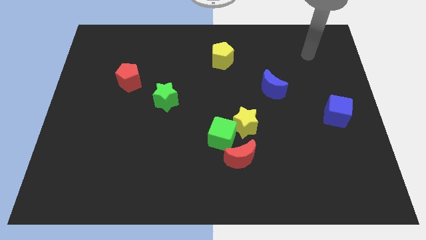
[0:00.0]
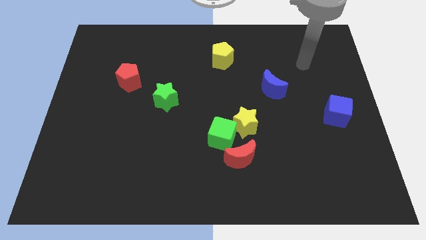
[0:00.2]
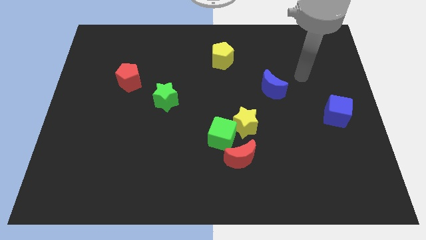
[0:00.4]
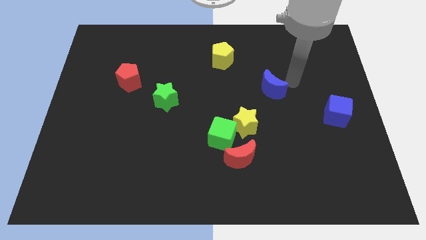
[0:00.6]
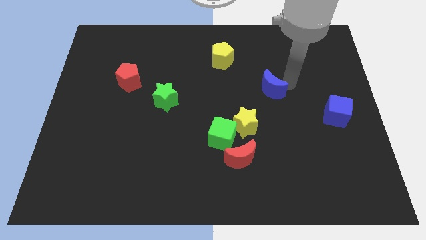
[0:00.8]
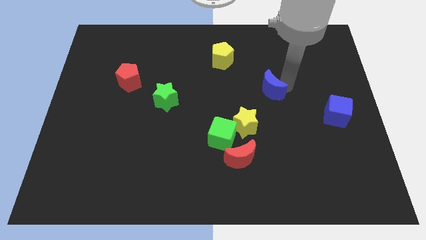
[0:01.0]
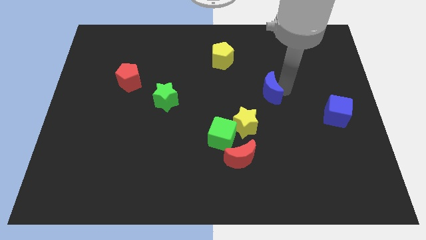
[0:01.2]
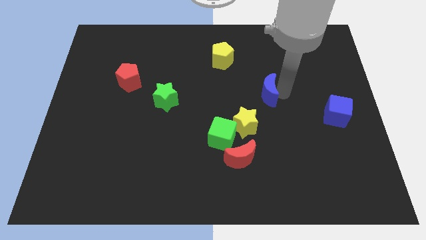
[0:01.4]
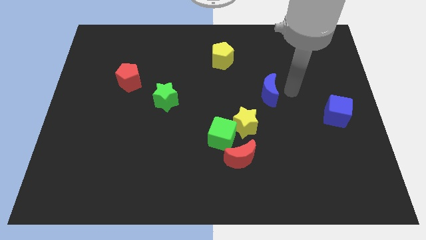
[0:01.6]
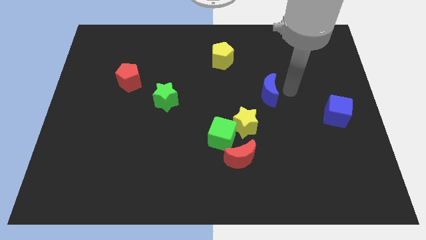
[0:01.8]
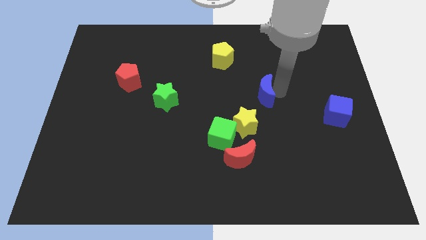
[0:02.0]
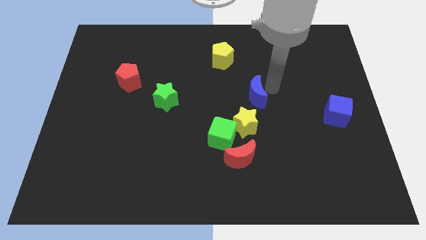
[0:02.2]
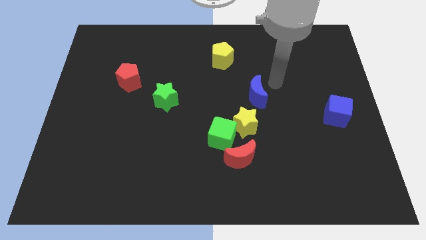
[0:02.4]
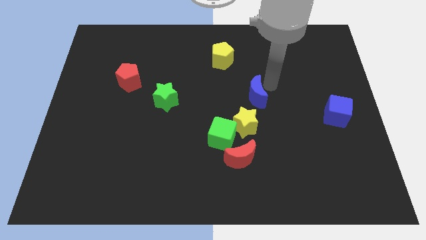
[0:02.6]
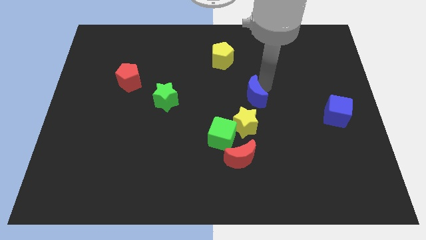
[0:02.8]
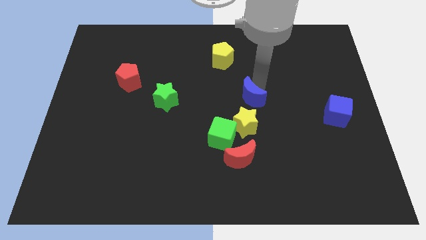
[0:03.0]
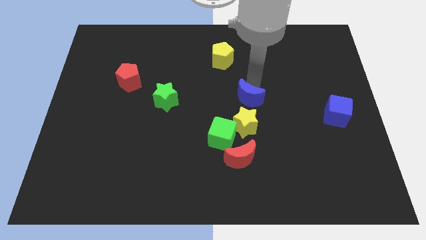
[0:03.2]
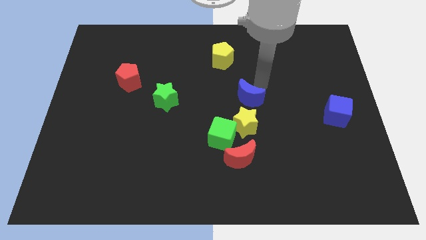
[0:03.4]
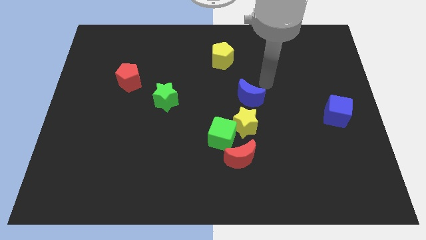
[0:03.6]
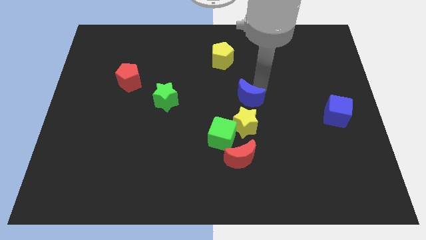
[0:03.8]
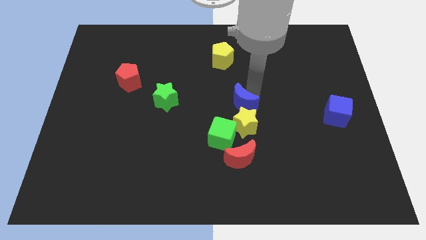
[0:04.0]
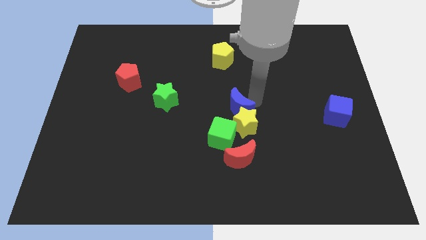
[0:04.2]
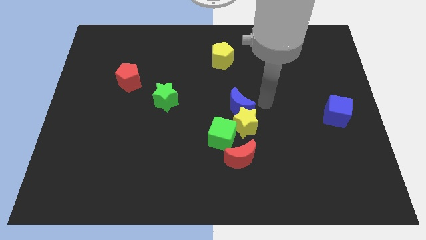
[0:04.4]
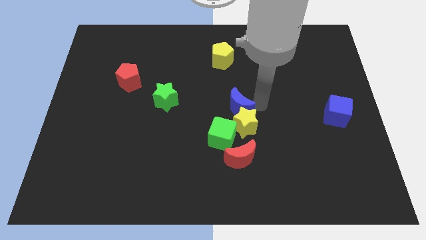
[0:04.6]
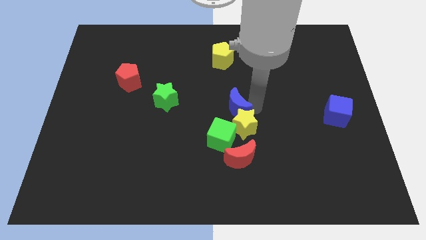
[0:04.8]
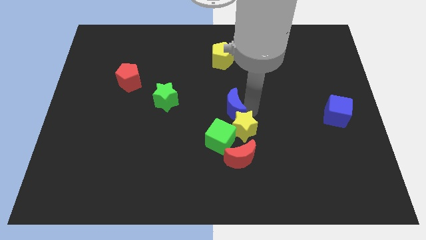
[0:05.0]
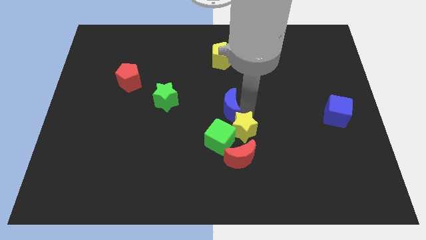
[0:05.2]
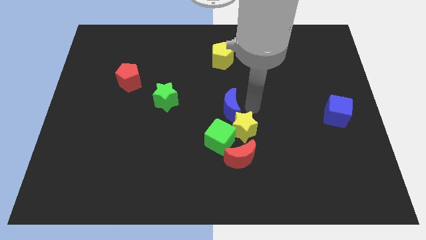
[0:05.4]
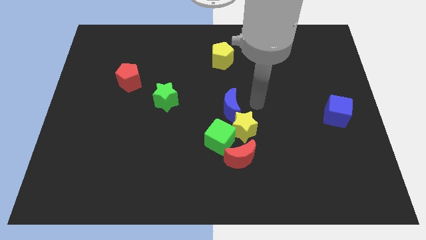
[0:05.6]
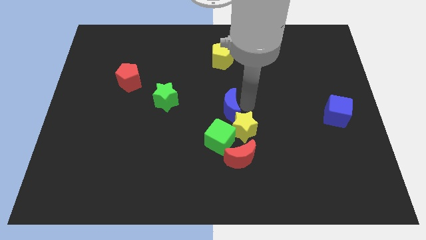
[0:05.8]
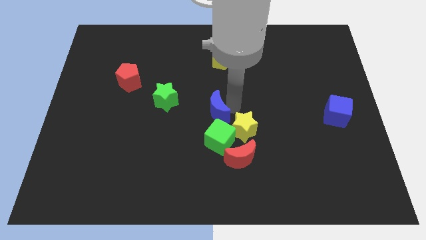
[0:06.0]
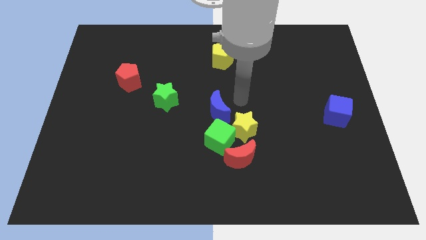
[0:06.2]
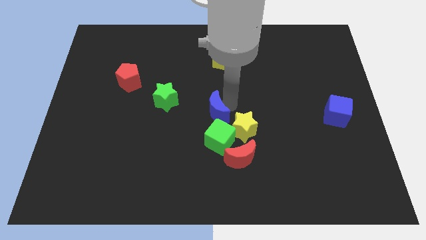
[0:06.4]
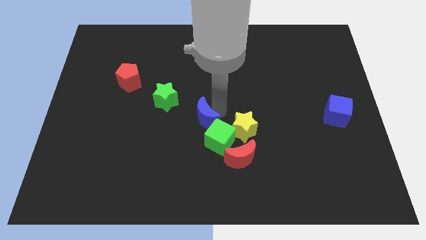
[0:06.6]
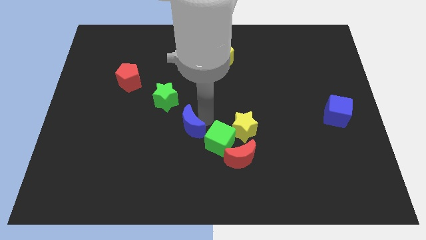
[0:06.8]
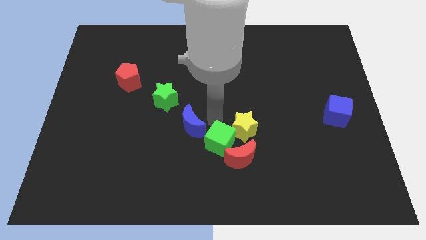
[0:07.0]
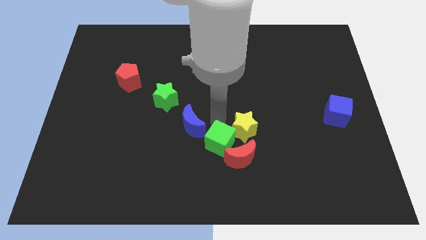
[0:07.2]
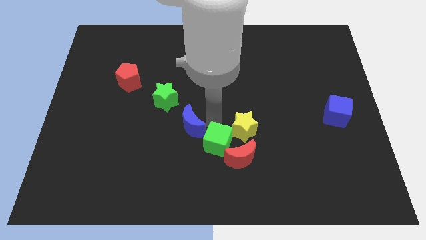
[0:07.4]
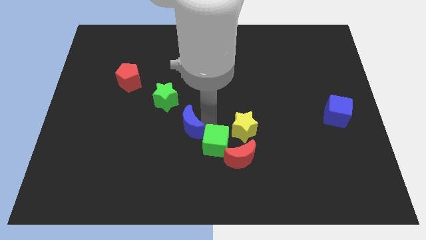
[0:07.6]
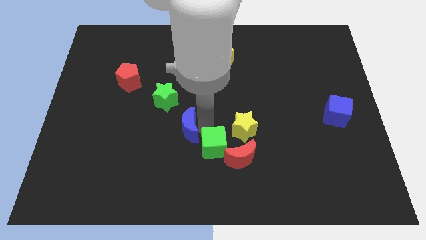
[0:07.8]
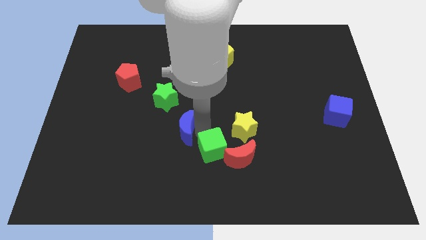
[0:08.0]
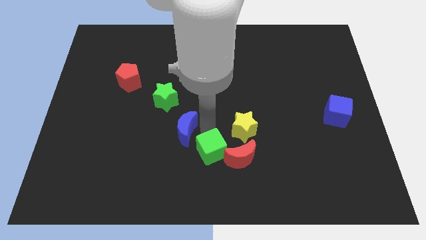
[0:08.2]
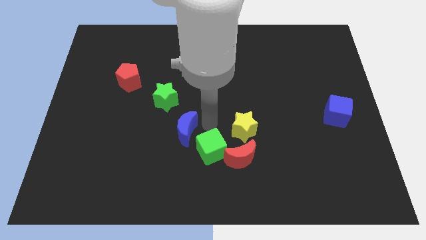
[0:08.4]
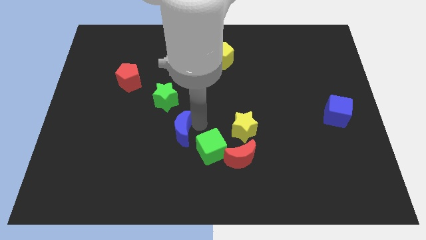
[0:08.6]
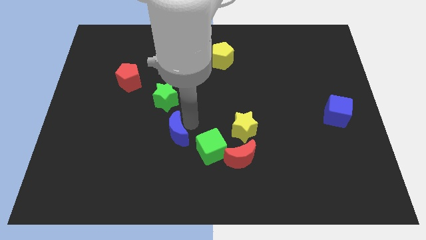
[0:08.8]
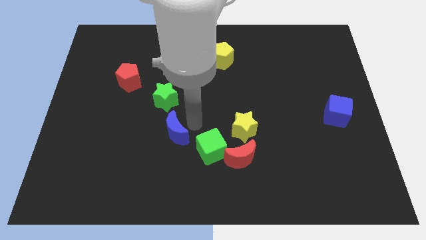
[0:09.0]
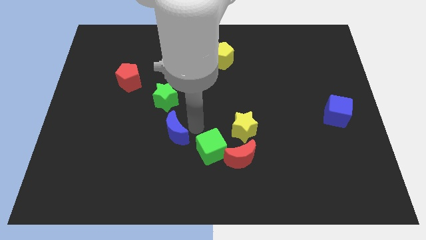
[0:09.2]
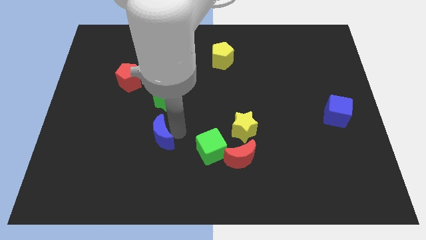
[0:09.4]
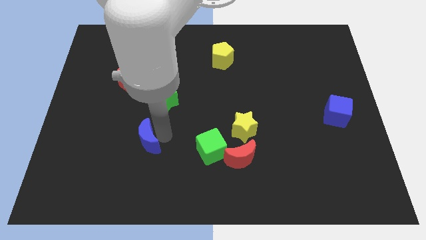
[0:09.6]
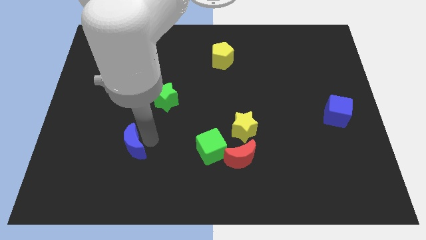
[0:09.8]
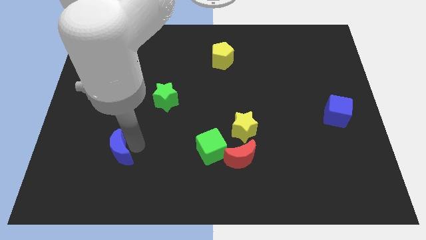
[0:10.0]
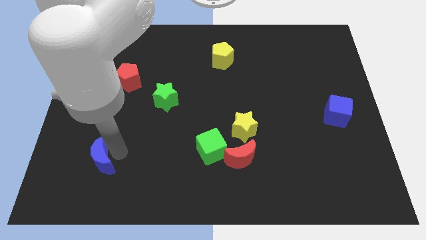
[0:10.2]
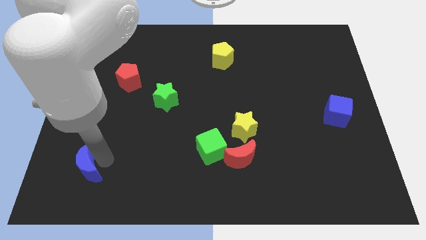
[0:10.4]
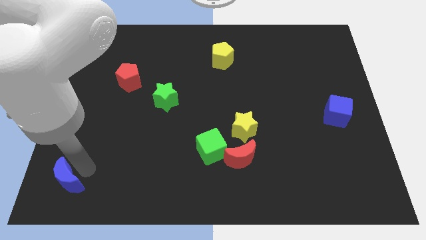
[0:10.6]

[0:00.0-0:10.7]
slide the blue moon to the bottom left of the board
